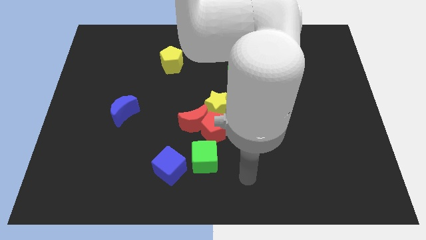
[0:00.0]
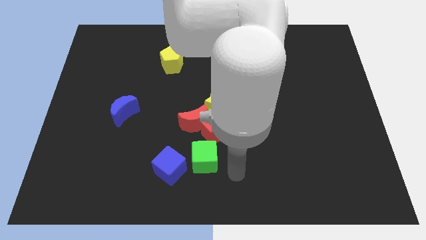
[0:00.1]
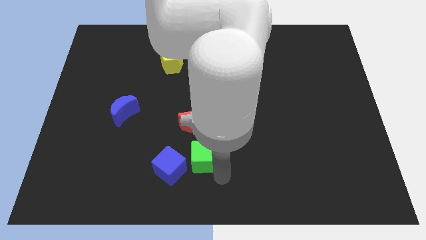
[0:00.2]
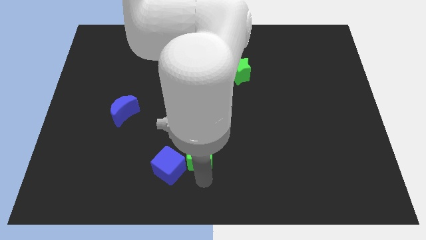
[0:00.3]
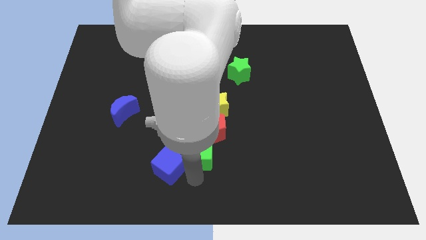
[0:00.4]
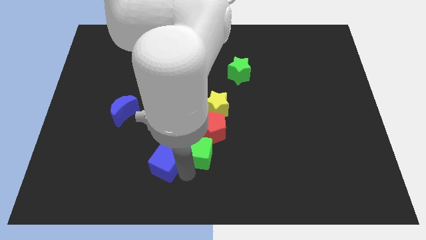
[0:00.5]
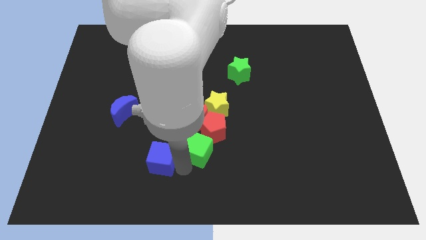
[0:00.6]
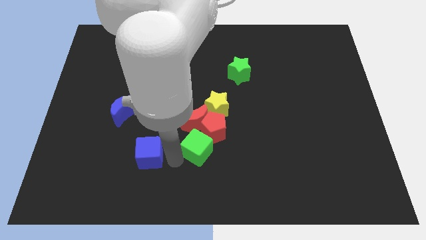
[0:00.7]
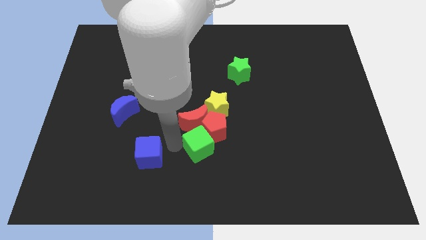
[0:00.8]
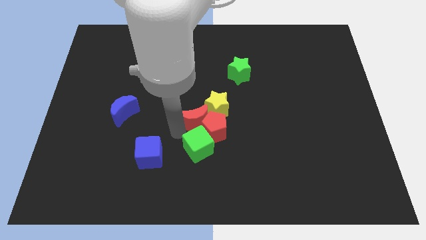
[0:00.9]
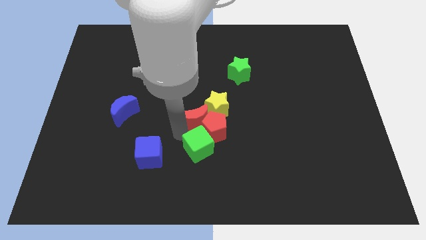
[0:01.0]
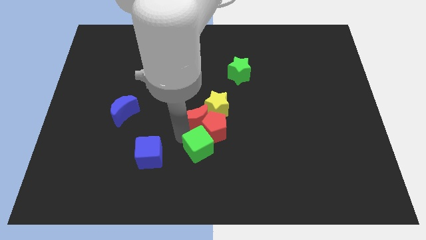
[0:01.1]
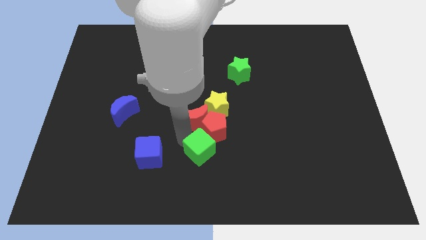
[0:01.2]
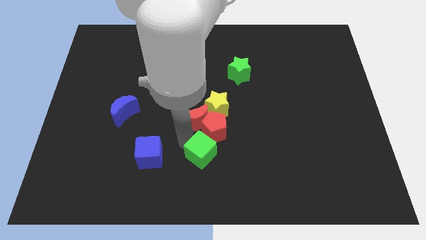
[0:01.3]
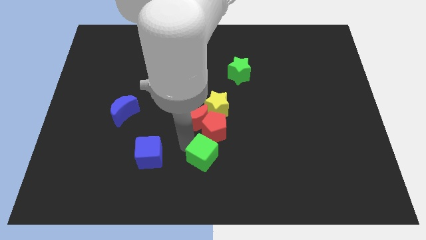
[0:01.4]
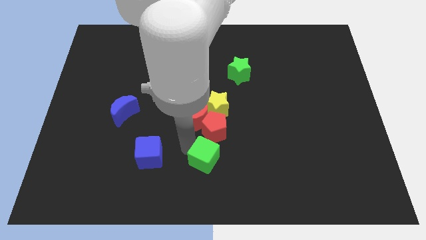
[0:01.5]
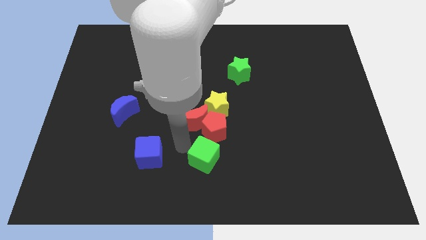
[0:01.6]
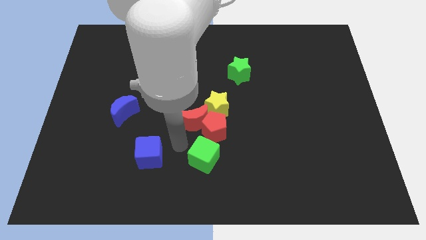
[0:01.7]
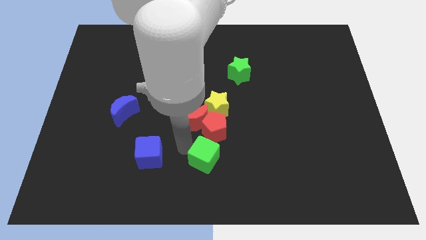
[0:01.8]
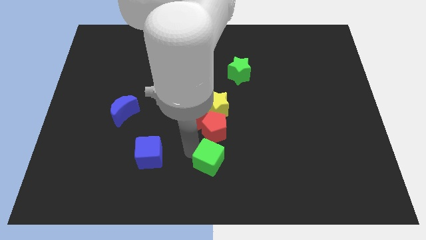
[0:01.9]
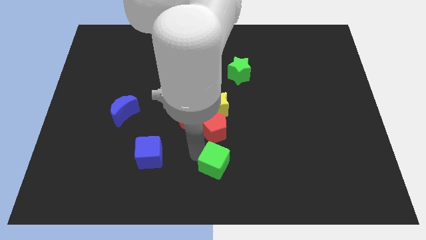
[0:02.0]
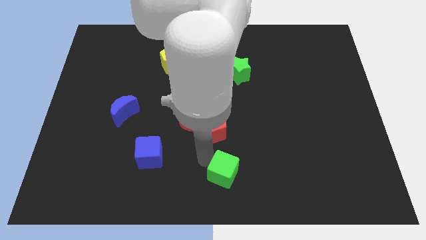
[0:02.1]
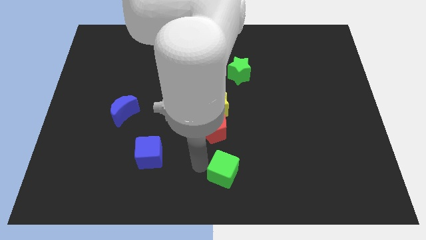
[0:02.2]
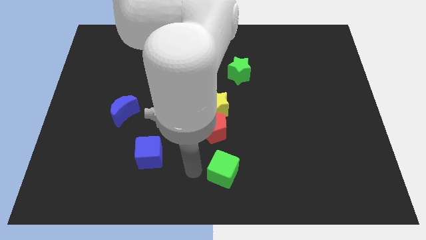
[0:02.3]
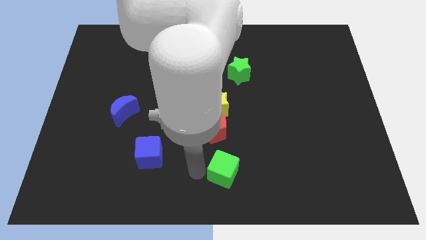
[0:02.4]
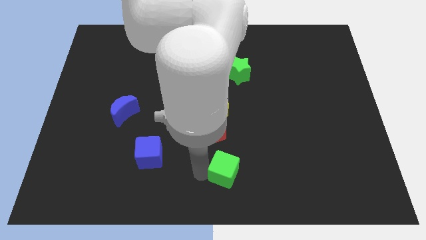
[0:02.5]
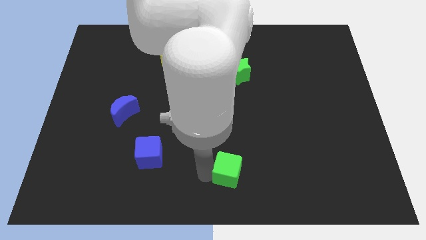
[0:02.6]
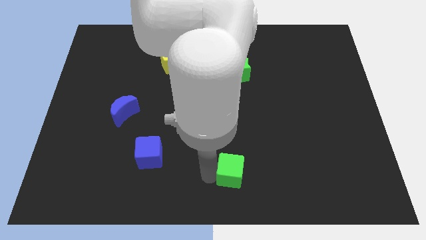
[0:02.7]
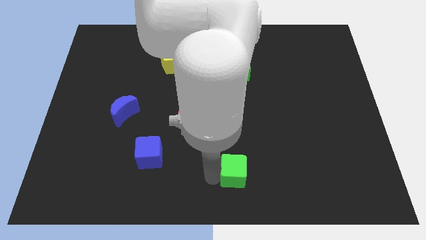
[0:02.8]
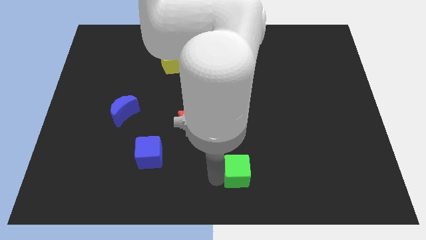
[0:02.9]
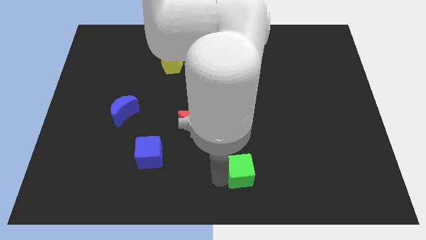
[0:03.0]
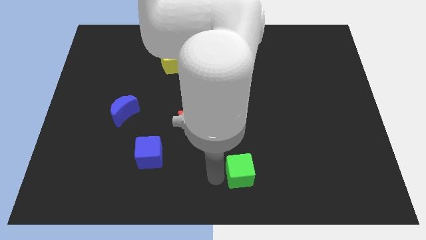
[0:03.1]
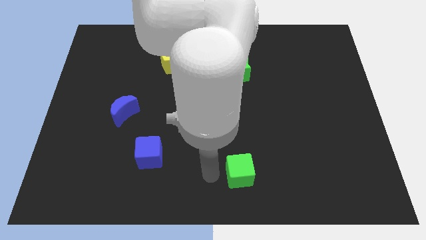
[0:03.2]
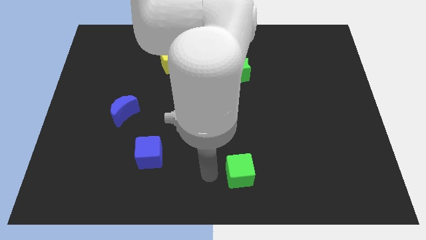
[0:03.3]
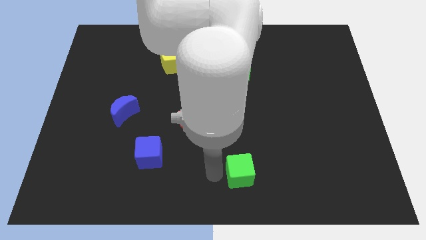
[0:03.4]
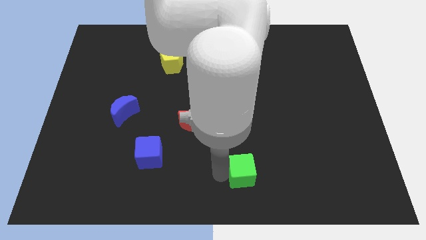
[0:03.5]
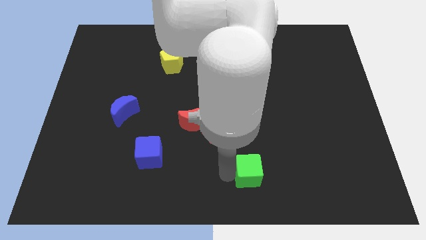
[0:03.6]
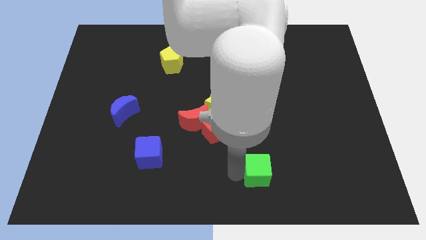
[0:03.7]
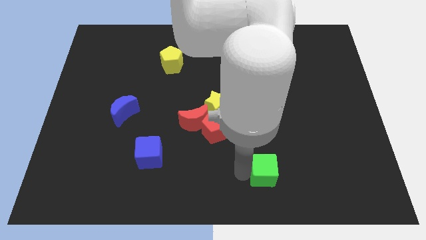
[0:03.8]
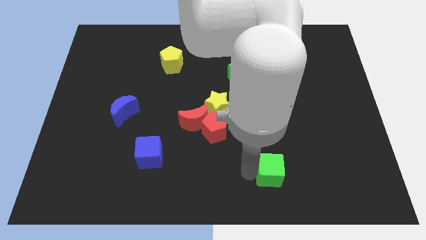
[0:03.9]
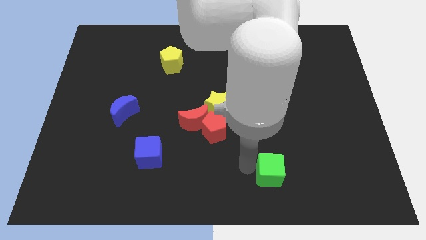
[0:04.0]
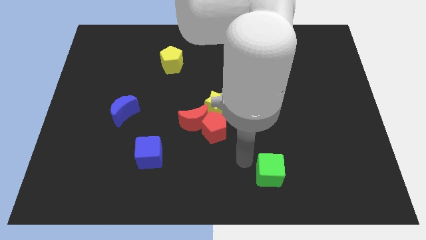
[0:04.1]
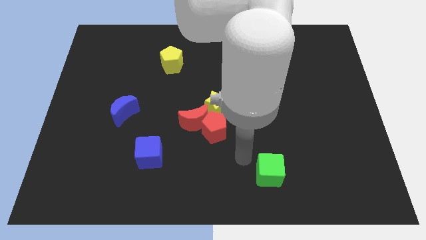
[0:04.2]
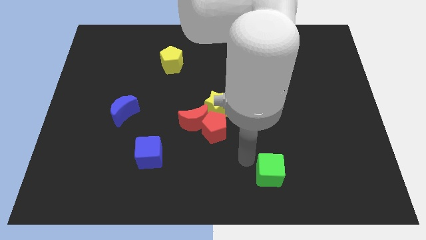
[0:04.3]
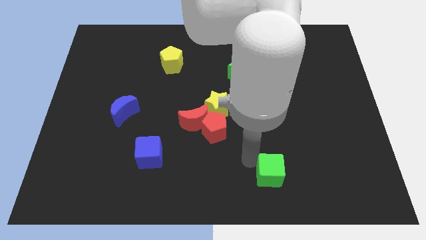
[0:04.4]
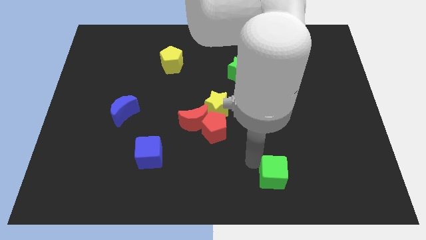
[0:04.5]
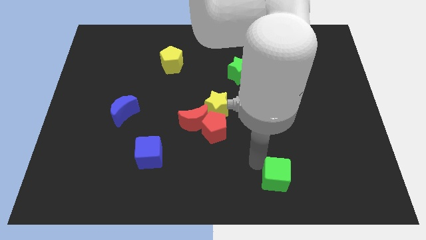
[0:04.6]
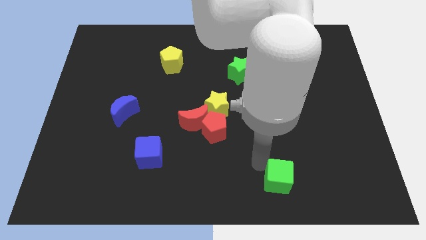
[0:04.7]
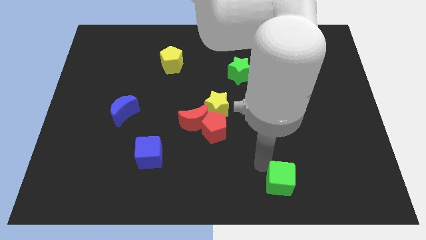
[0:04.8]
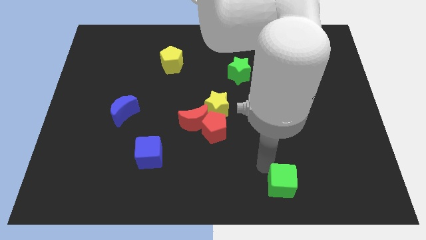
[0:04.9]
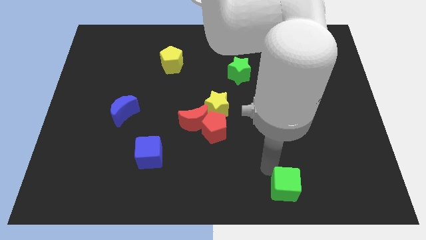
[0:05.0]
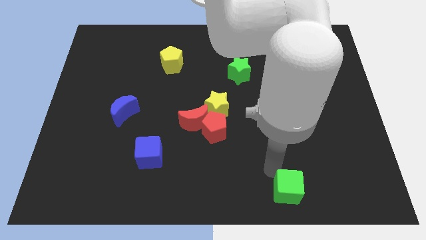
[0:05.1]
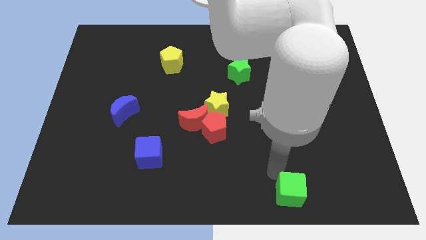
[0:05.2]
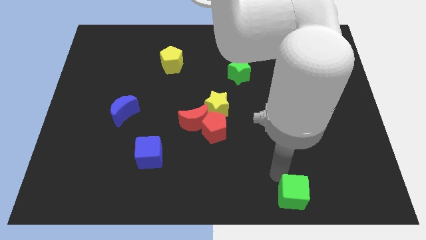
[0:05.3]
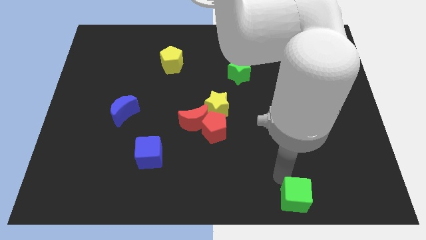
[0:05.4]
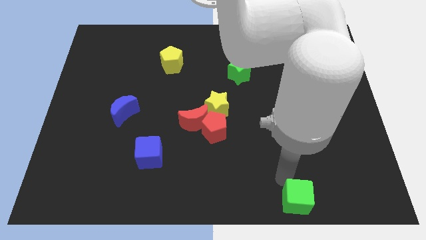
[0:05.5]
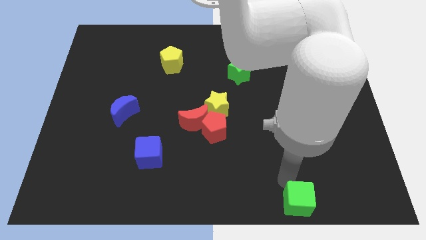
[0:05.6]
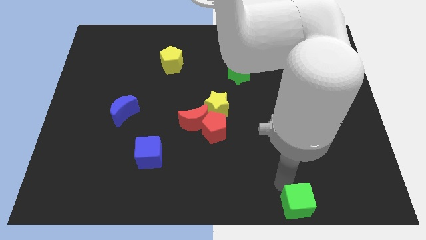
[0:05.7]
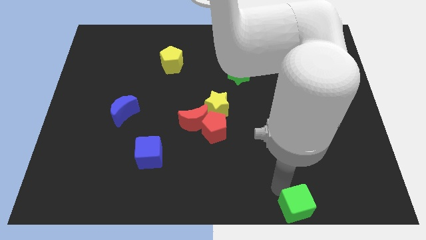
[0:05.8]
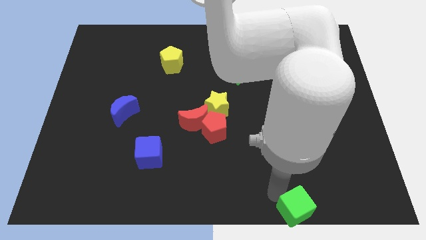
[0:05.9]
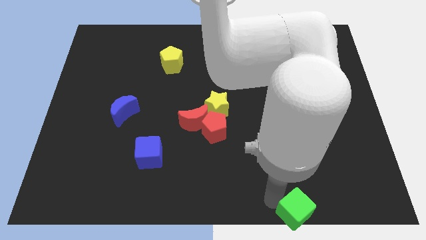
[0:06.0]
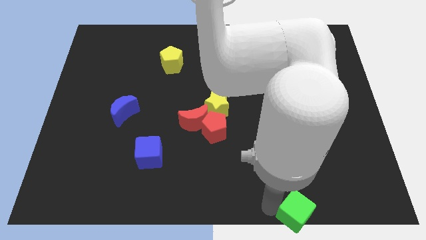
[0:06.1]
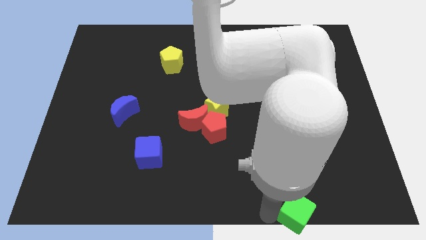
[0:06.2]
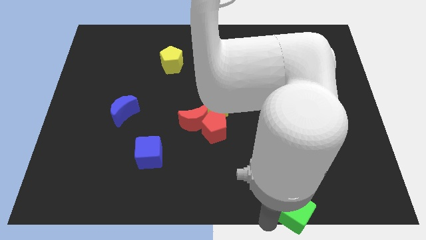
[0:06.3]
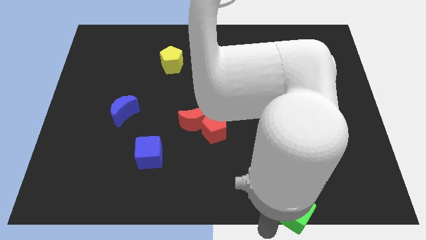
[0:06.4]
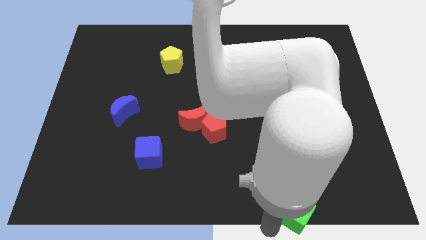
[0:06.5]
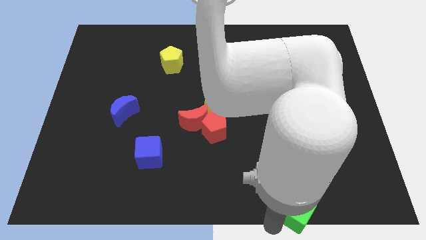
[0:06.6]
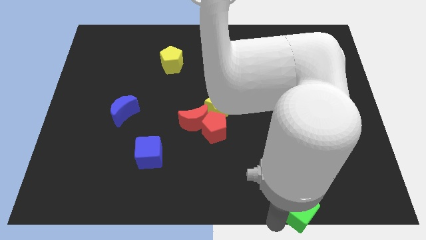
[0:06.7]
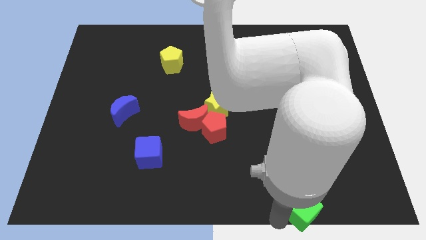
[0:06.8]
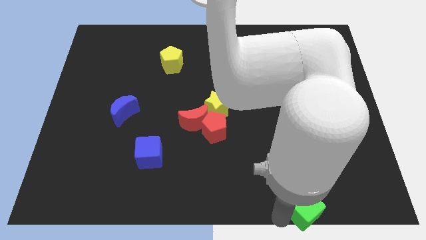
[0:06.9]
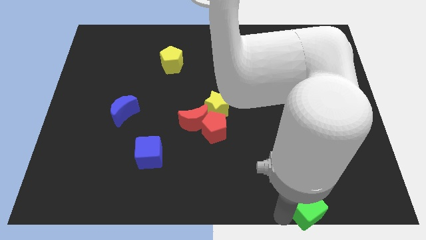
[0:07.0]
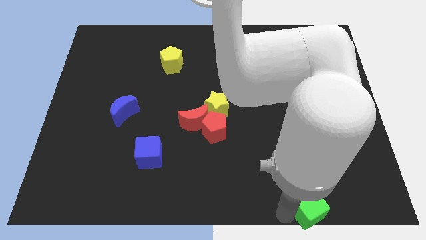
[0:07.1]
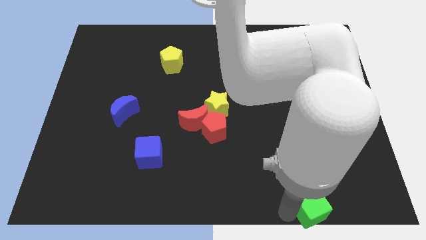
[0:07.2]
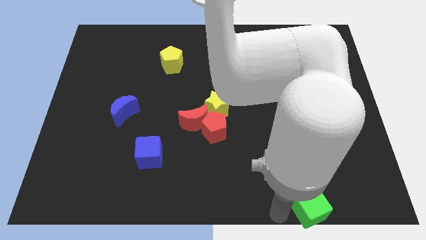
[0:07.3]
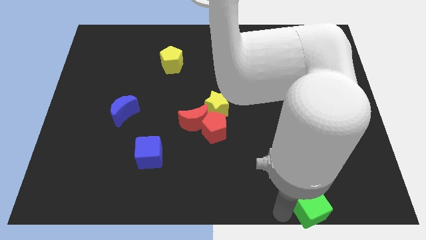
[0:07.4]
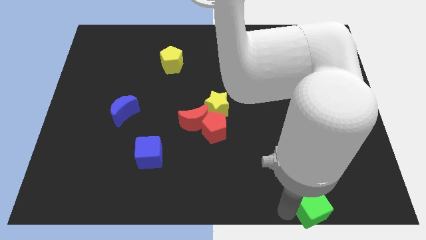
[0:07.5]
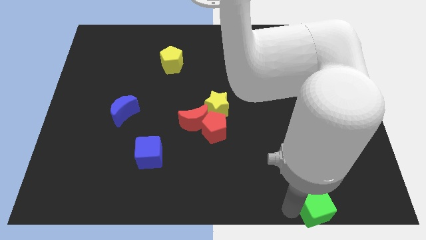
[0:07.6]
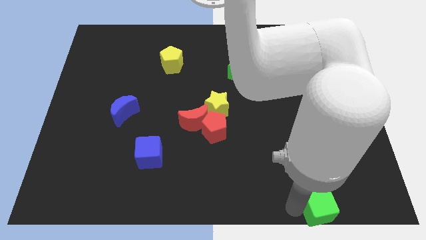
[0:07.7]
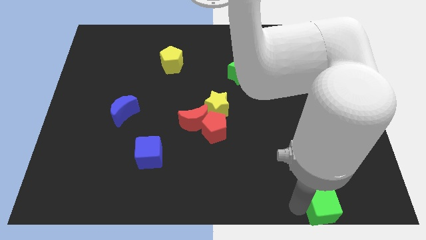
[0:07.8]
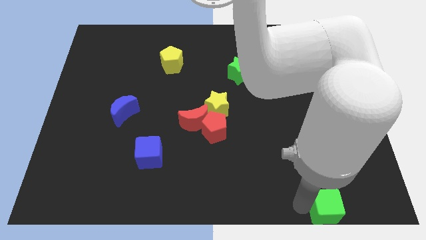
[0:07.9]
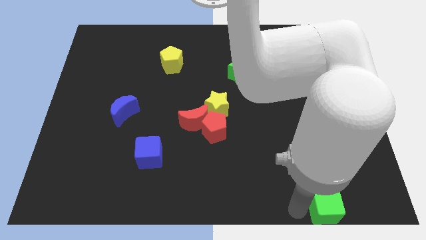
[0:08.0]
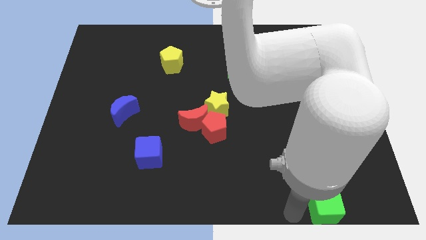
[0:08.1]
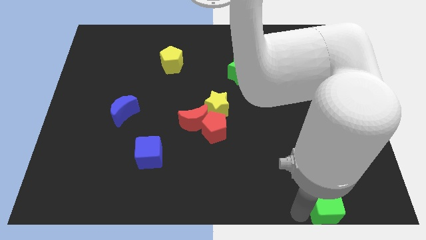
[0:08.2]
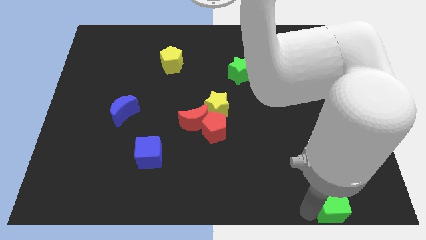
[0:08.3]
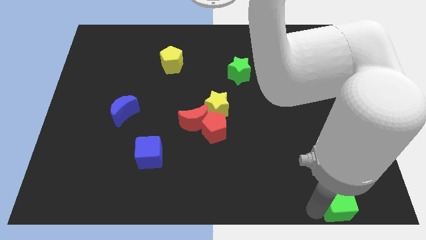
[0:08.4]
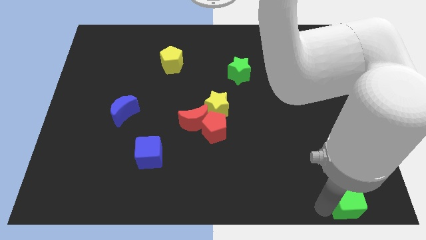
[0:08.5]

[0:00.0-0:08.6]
push the green cube to the lower right corner
